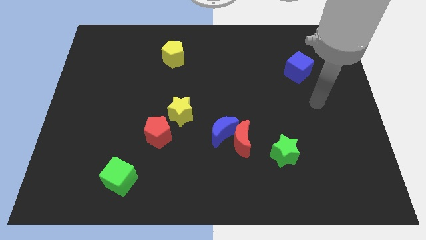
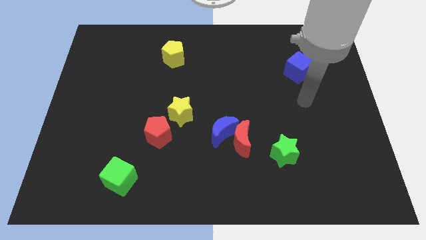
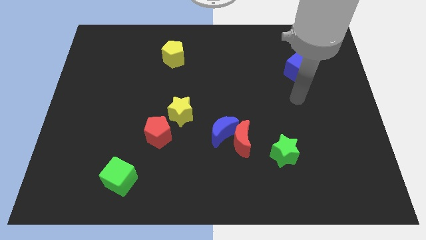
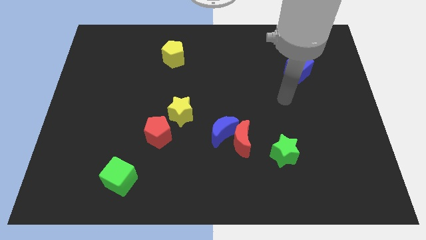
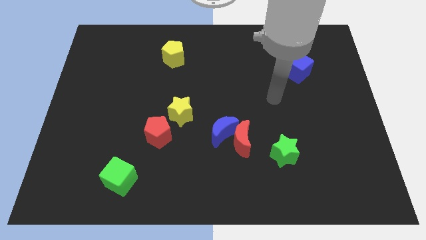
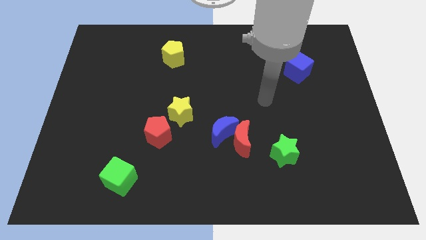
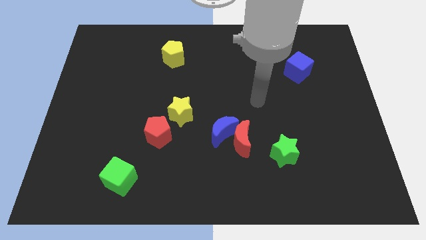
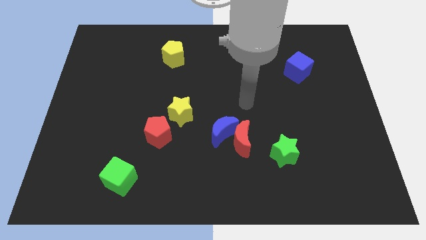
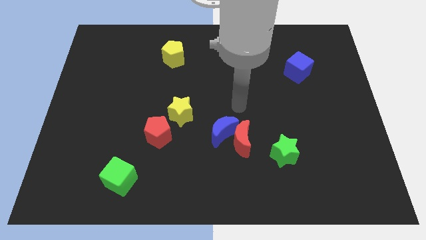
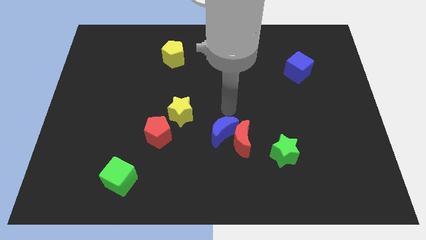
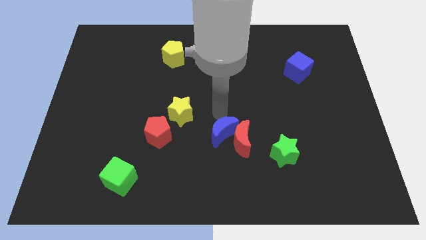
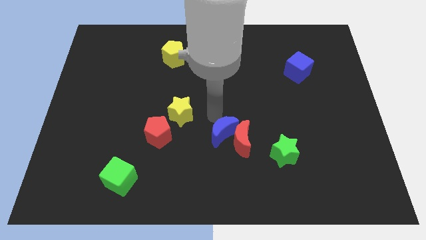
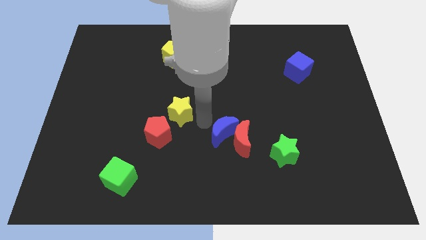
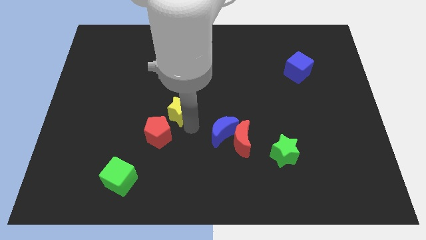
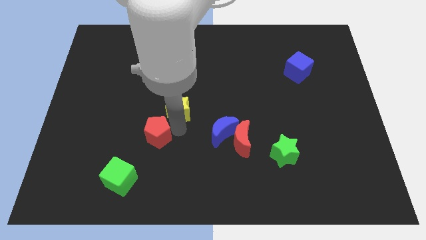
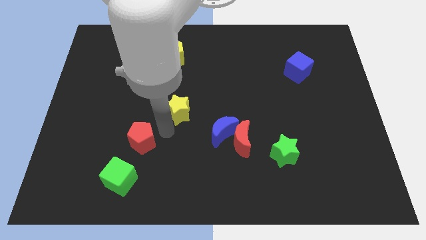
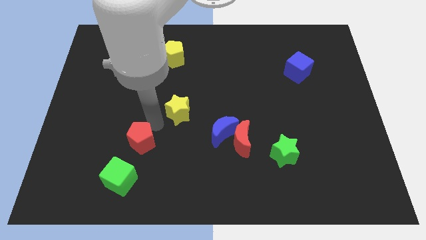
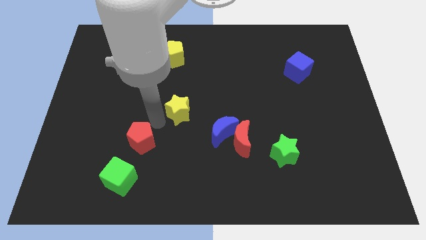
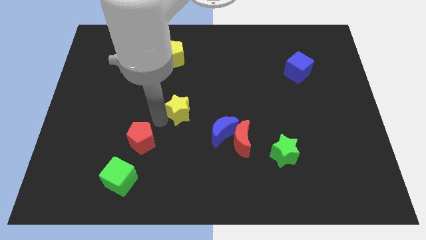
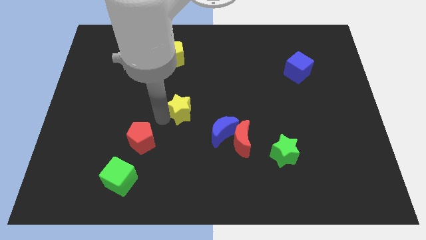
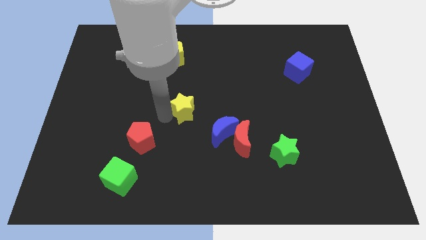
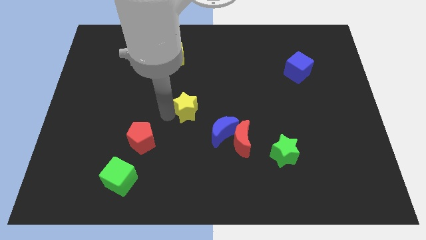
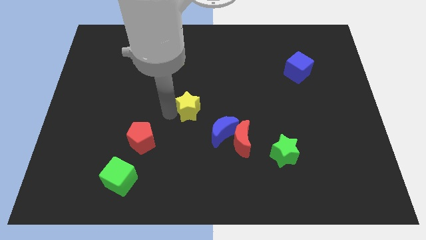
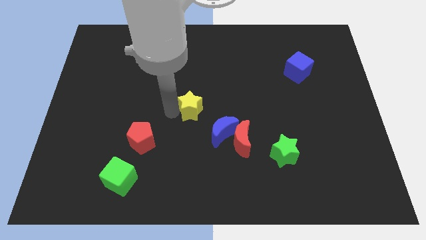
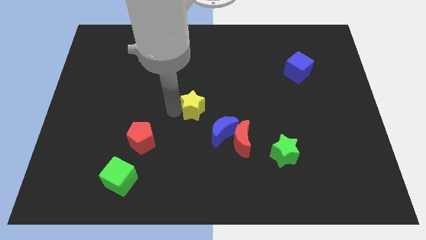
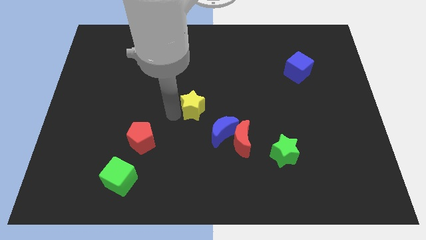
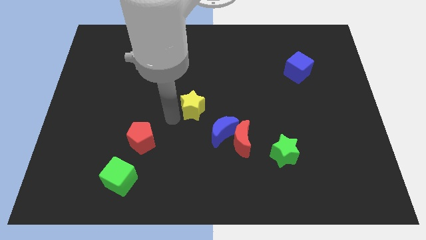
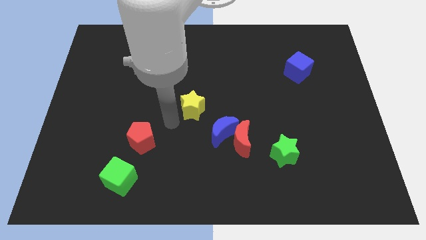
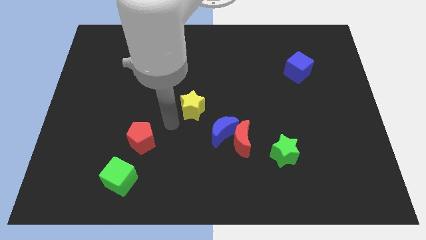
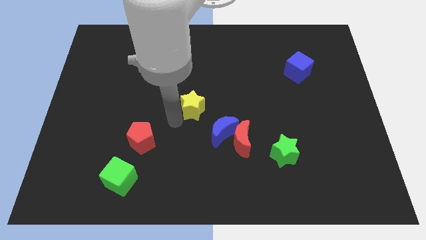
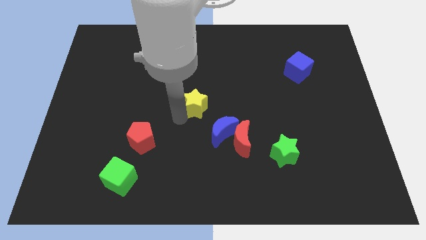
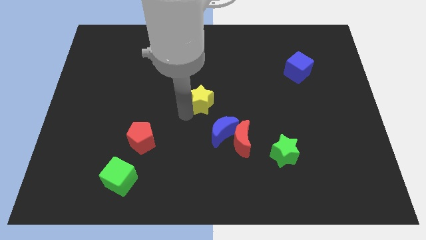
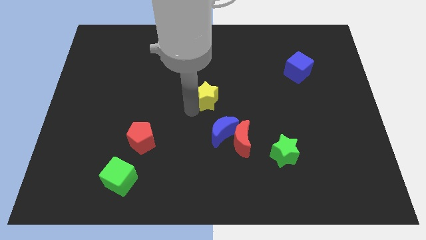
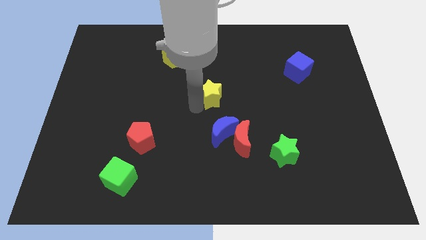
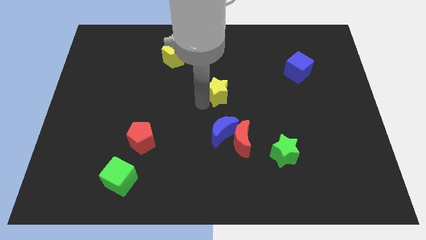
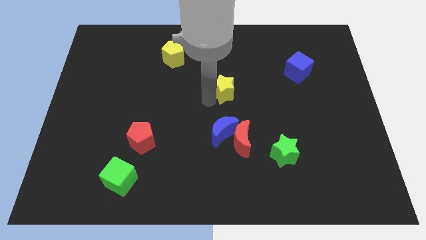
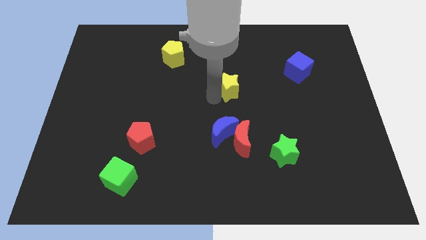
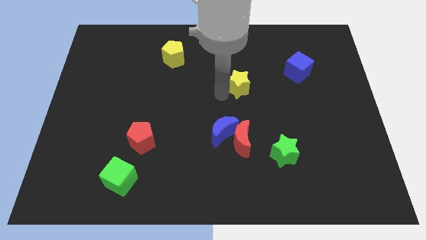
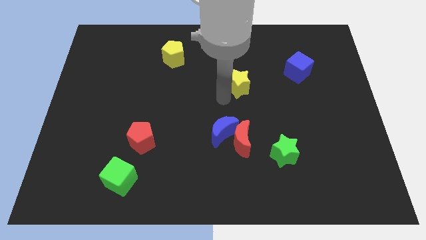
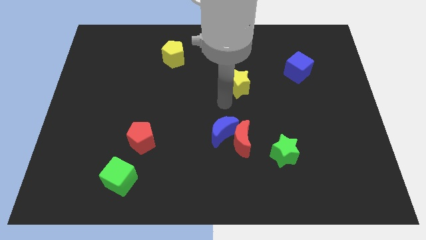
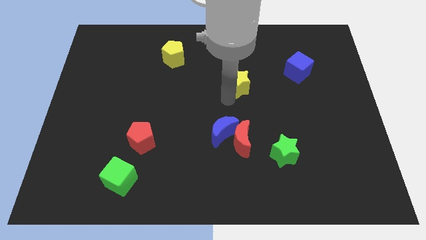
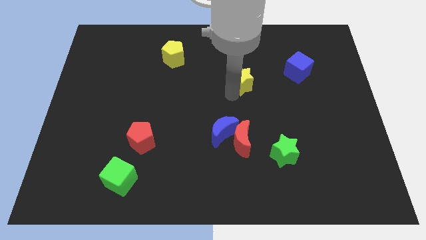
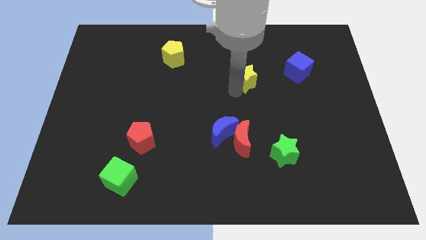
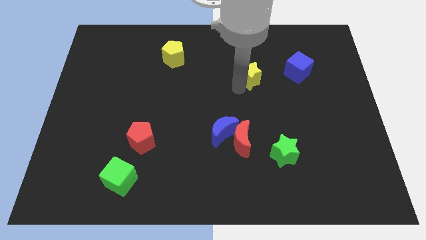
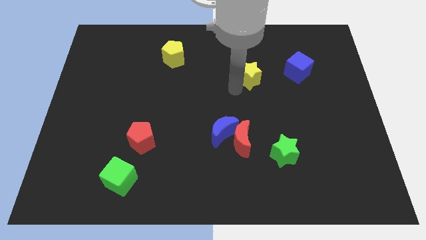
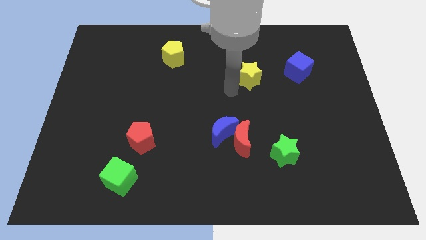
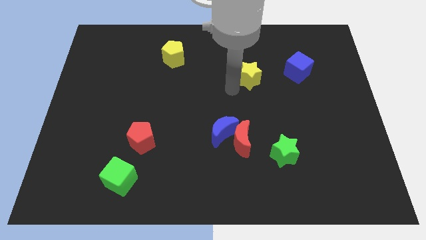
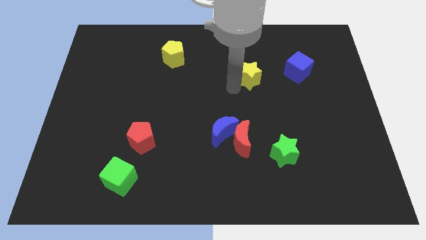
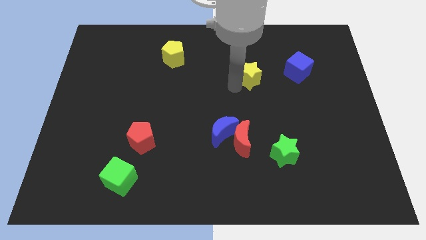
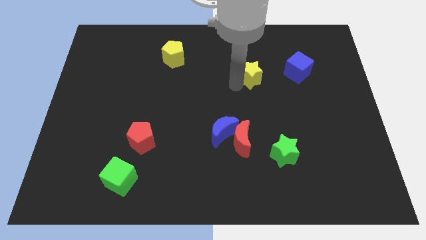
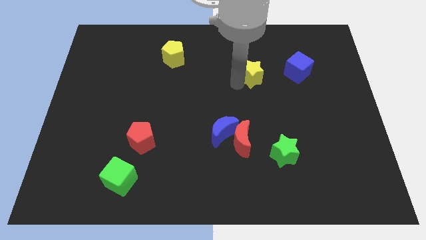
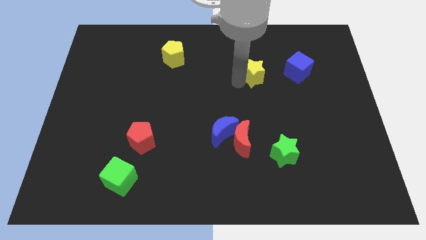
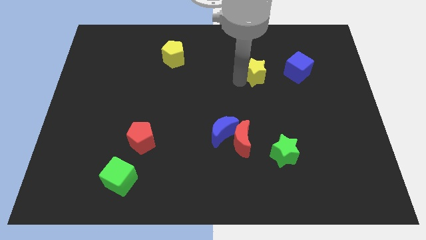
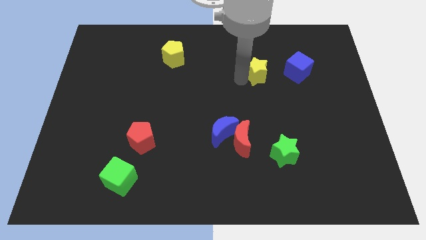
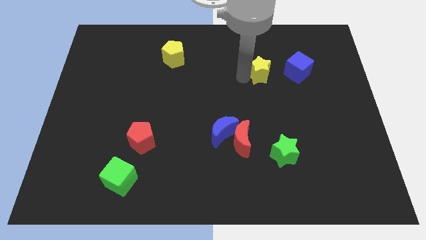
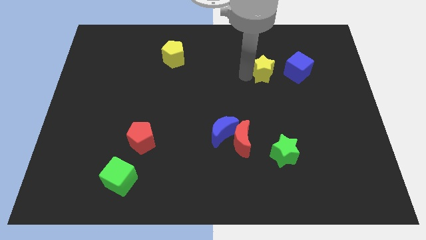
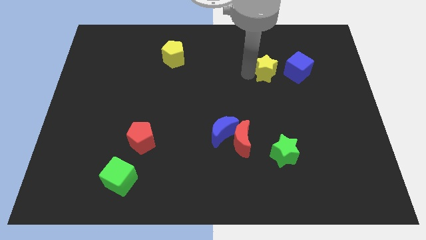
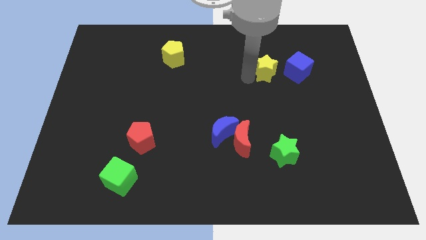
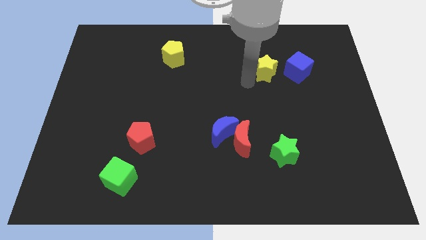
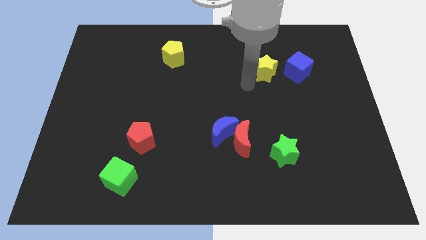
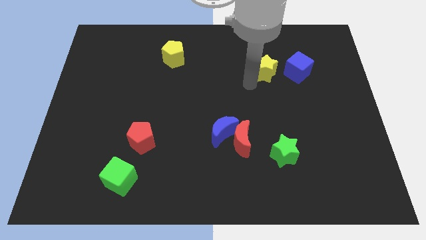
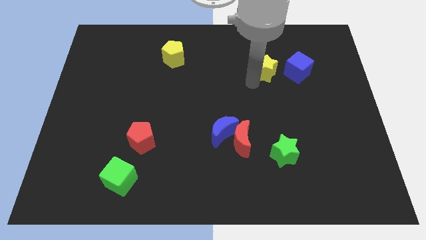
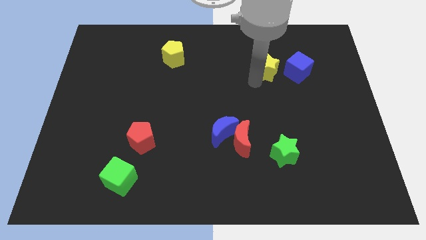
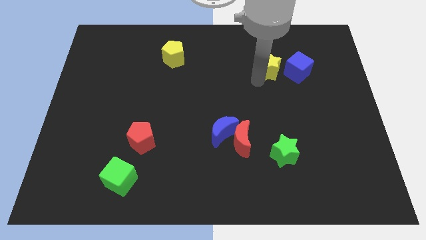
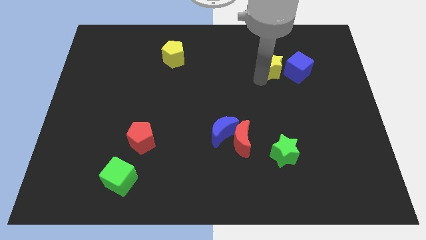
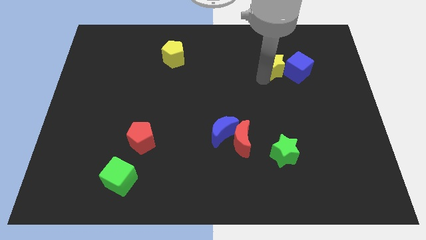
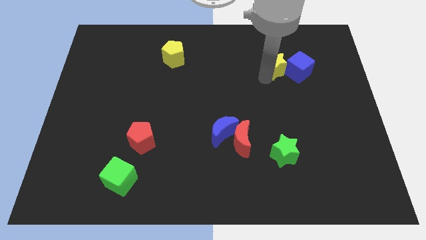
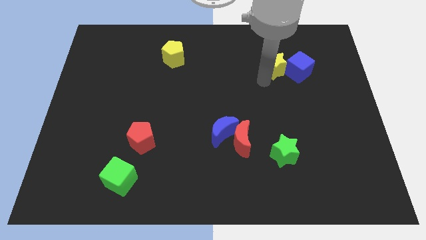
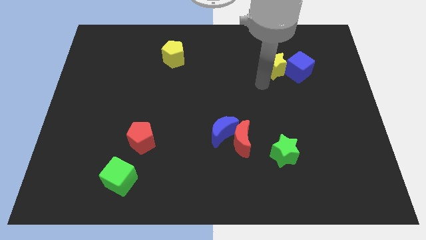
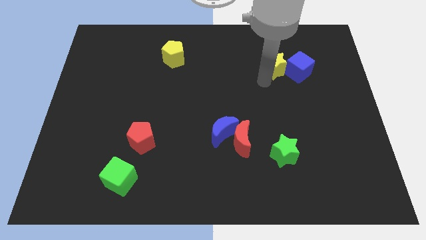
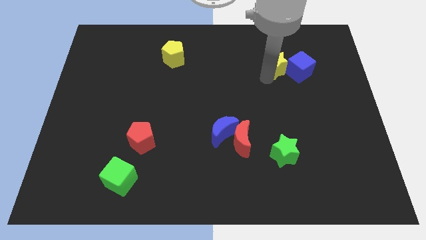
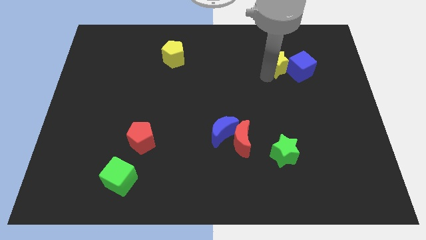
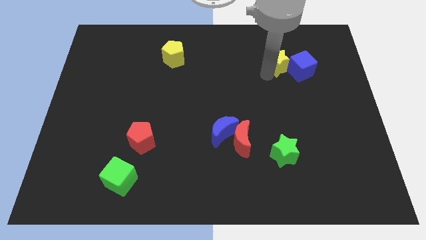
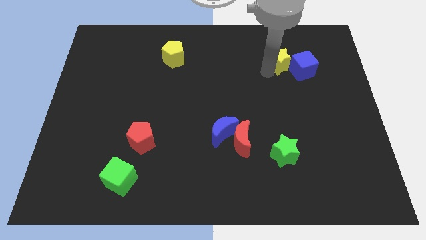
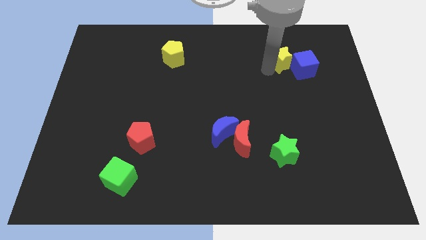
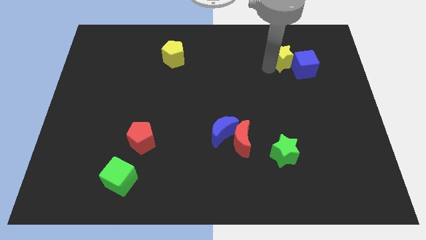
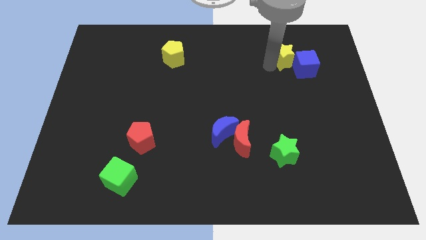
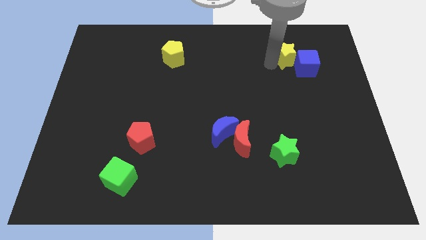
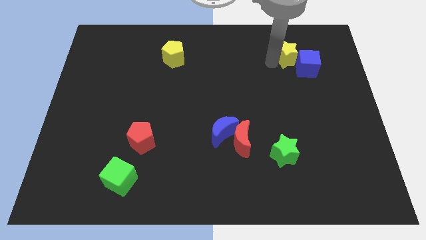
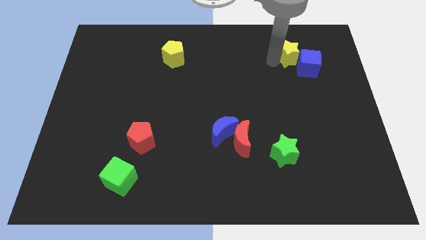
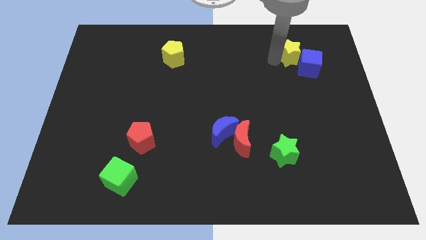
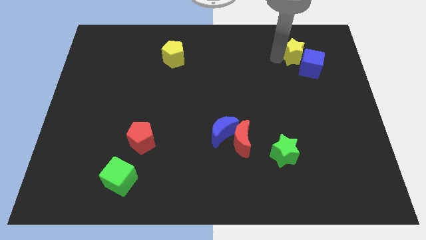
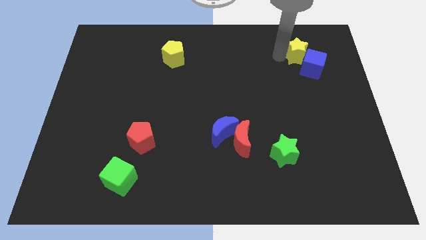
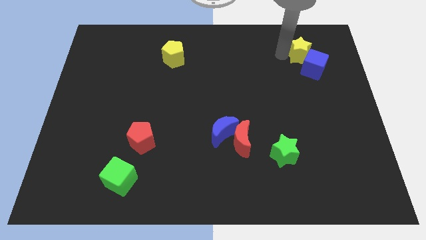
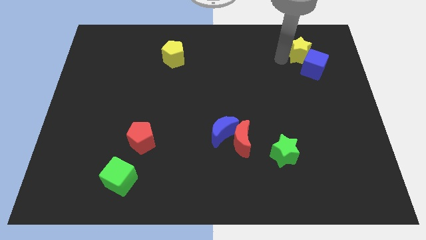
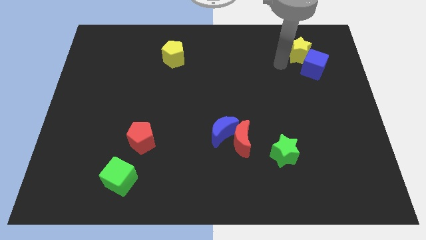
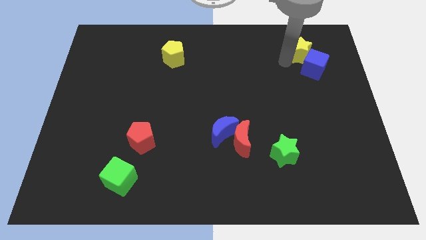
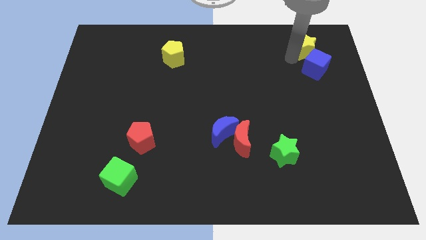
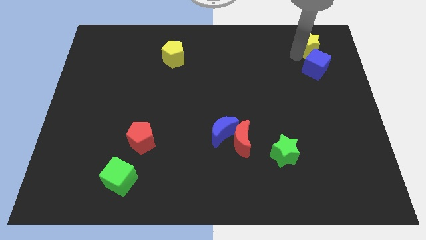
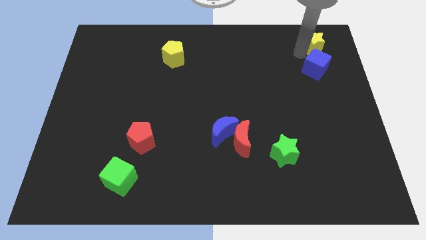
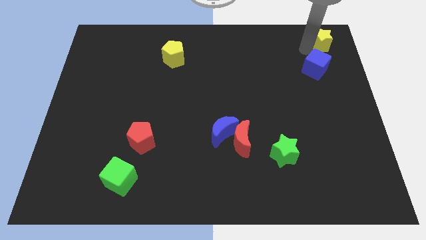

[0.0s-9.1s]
move the yellow star to the top right of the board
